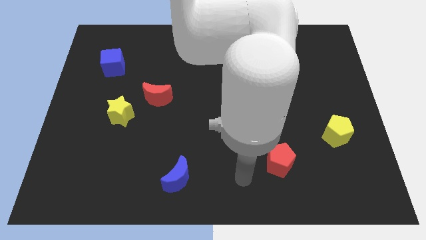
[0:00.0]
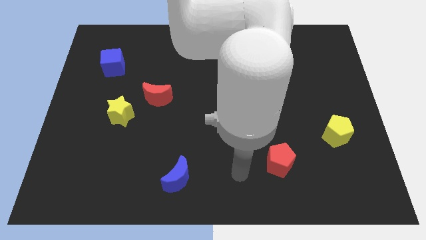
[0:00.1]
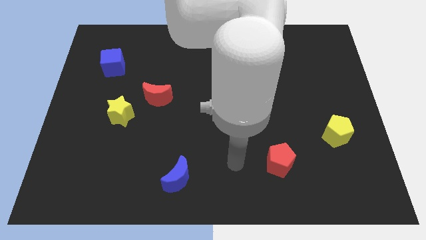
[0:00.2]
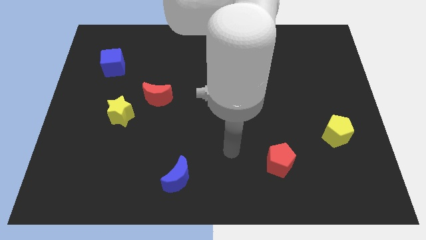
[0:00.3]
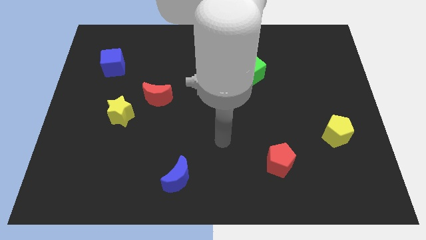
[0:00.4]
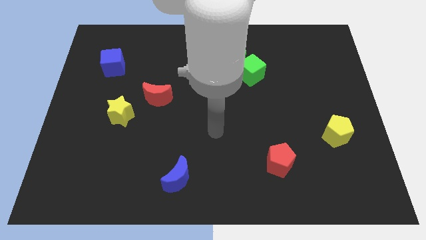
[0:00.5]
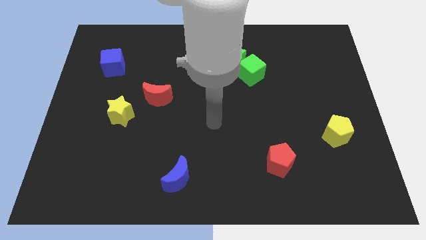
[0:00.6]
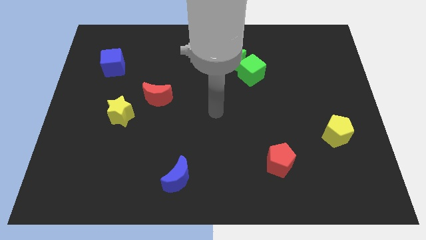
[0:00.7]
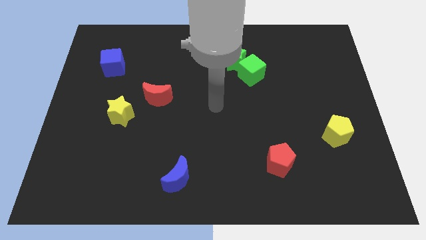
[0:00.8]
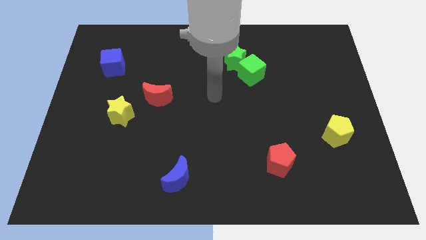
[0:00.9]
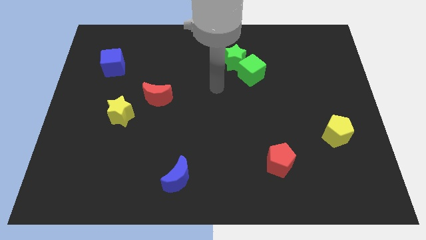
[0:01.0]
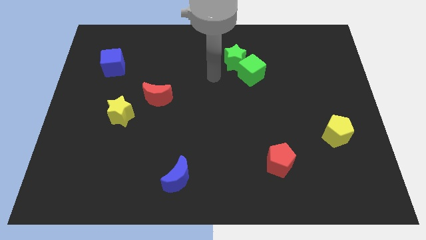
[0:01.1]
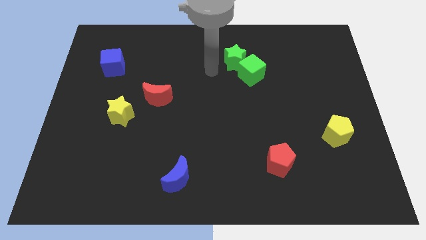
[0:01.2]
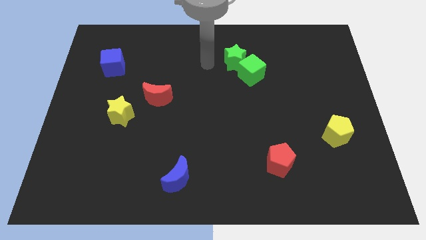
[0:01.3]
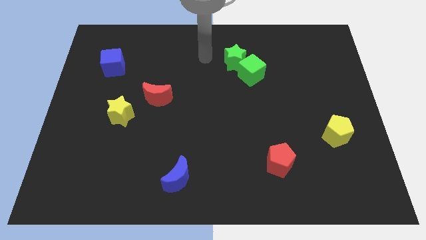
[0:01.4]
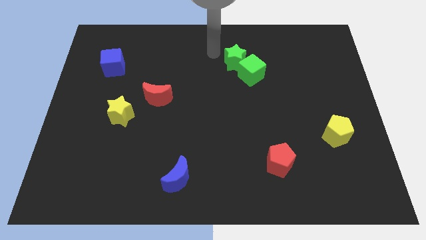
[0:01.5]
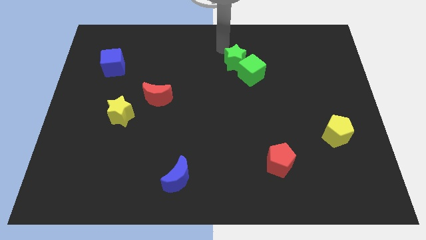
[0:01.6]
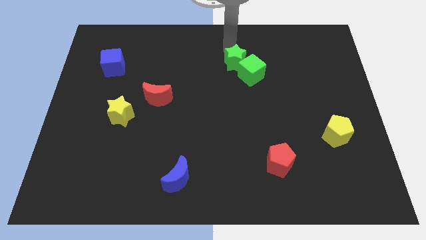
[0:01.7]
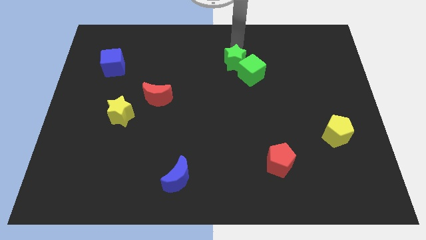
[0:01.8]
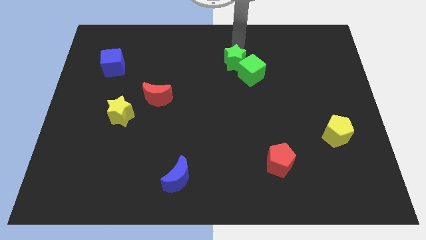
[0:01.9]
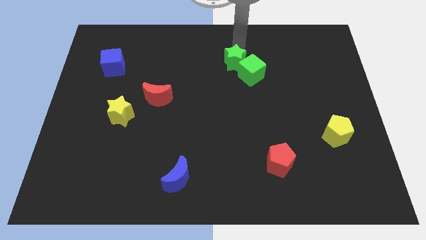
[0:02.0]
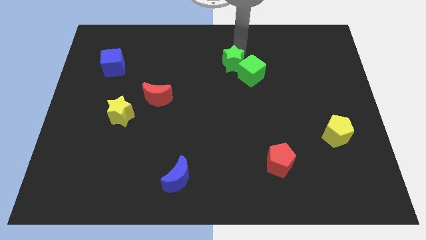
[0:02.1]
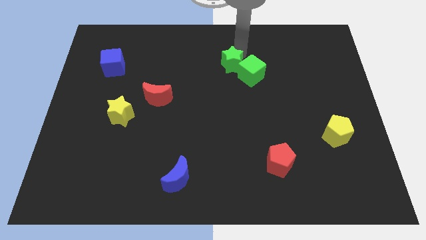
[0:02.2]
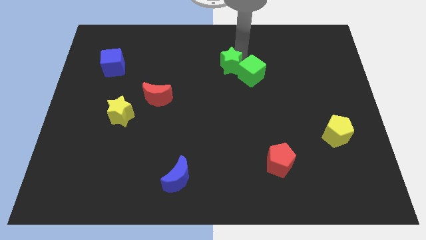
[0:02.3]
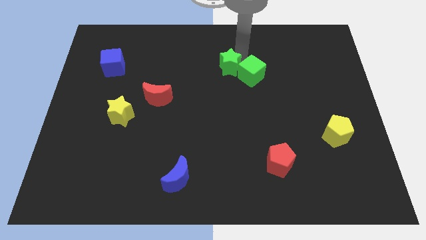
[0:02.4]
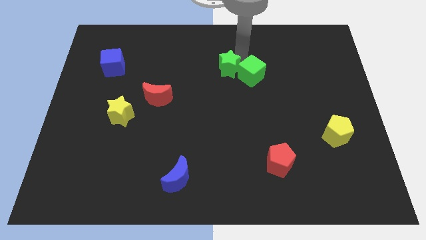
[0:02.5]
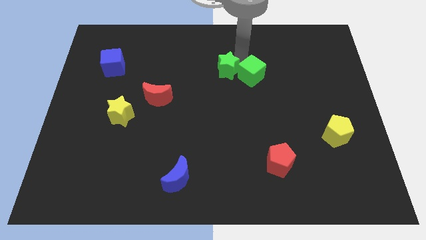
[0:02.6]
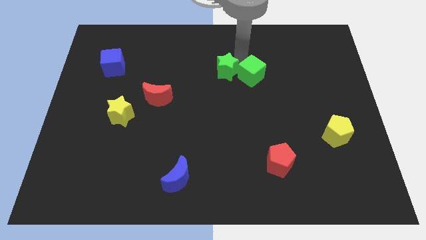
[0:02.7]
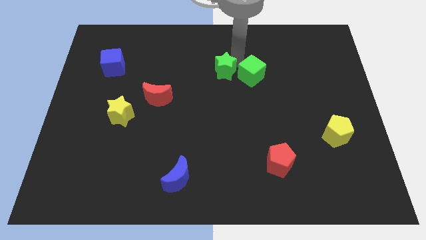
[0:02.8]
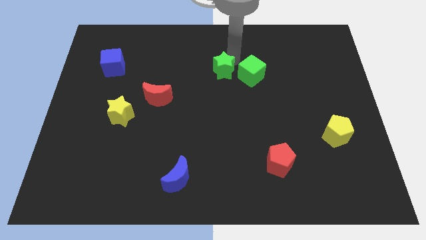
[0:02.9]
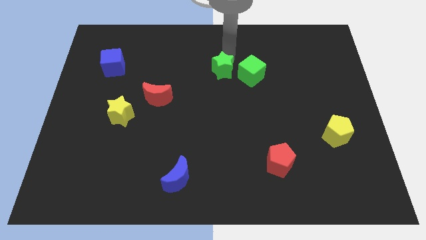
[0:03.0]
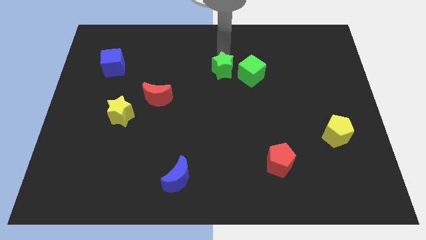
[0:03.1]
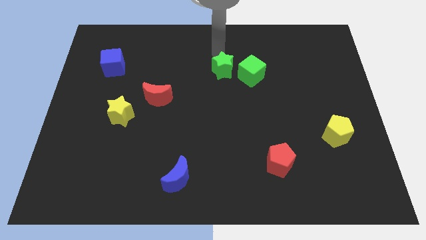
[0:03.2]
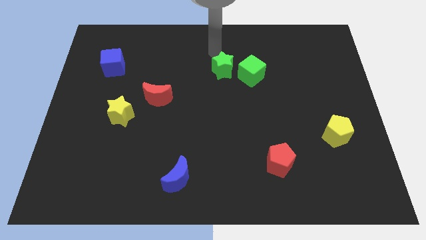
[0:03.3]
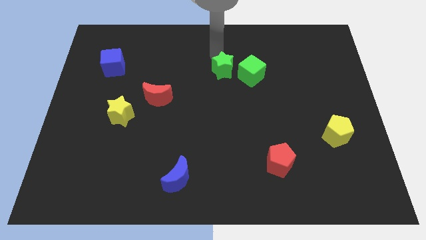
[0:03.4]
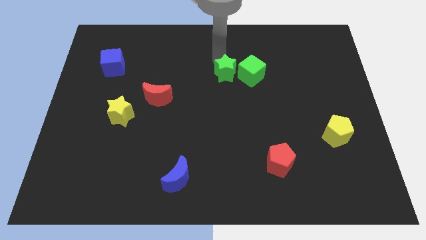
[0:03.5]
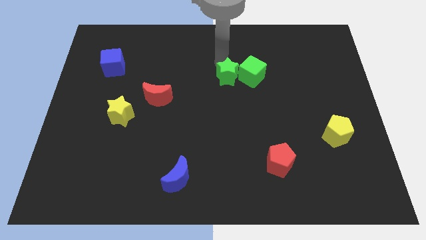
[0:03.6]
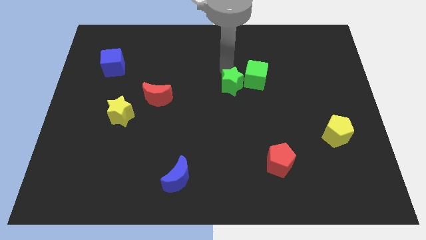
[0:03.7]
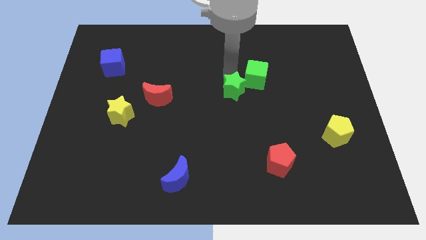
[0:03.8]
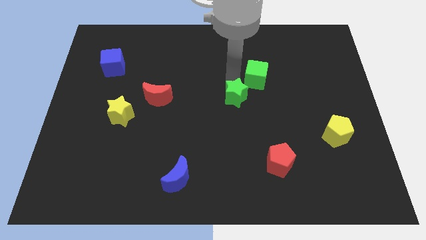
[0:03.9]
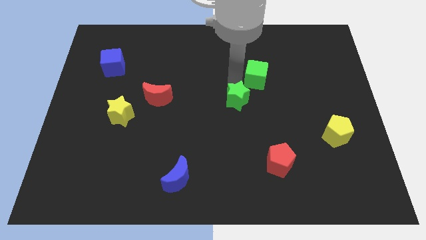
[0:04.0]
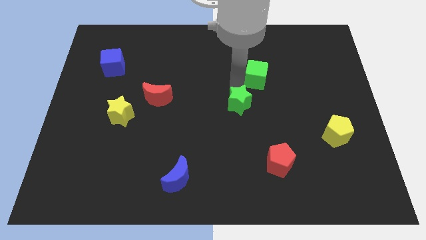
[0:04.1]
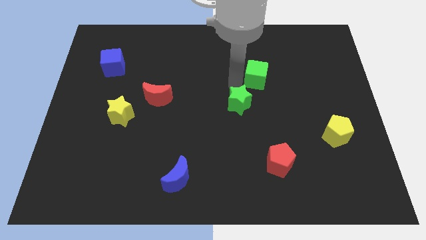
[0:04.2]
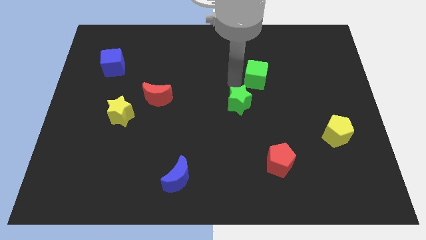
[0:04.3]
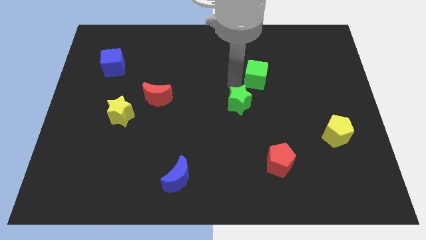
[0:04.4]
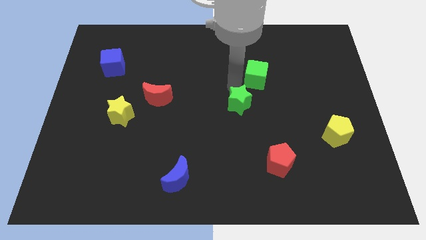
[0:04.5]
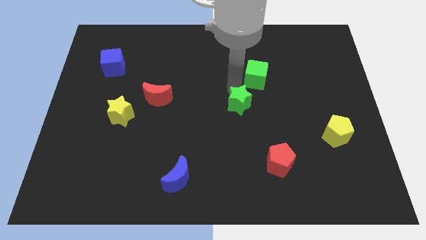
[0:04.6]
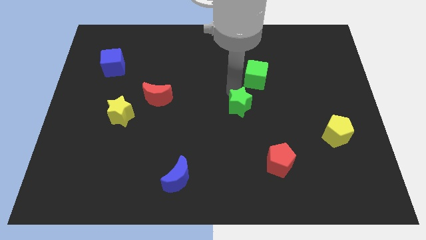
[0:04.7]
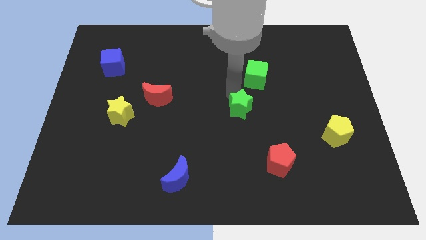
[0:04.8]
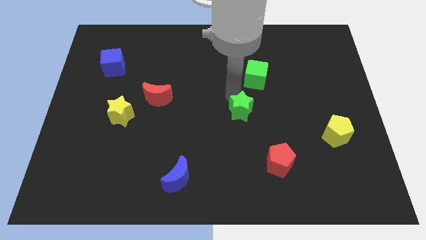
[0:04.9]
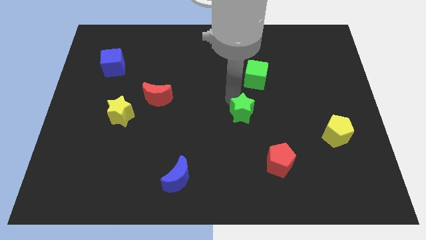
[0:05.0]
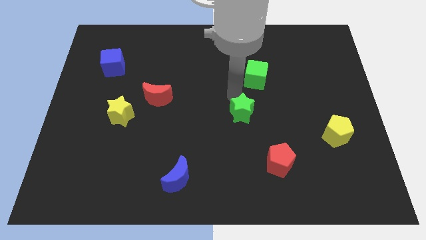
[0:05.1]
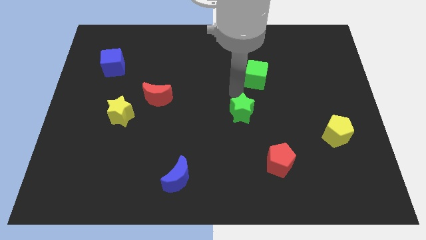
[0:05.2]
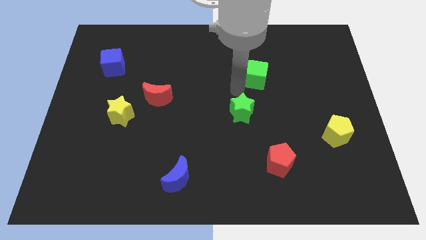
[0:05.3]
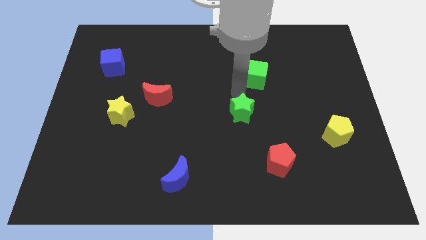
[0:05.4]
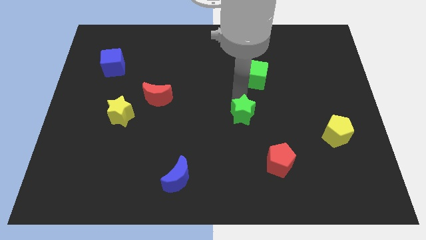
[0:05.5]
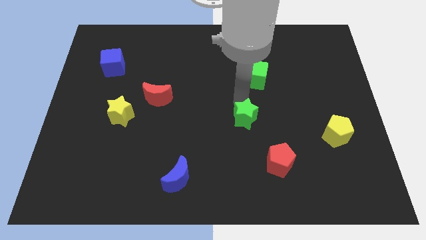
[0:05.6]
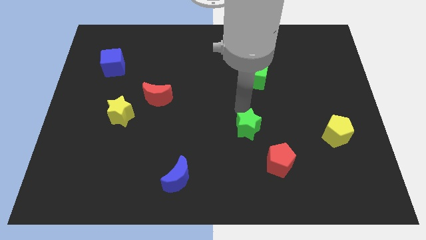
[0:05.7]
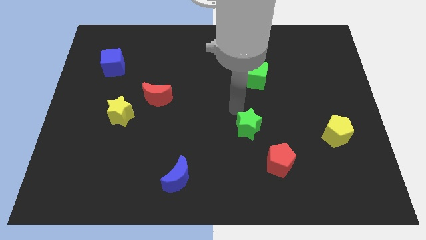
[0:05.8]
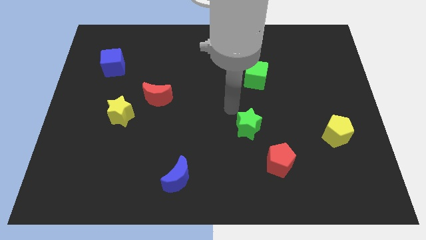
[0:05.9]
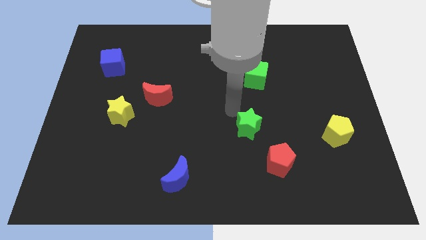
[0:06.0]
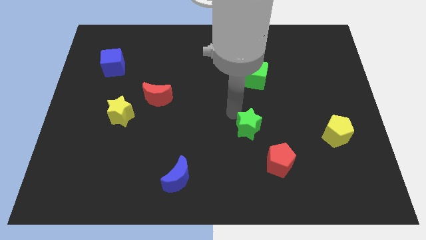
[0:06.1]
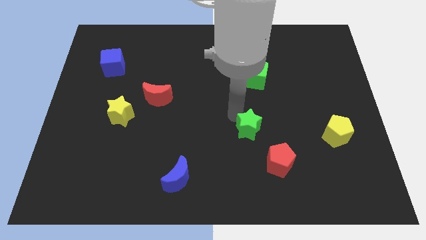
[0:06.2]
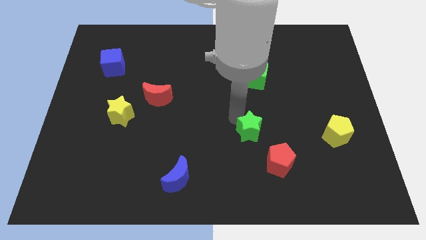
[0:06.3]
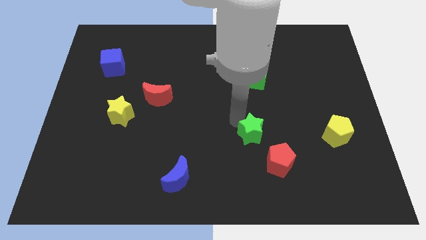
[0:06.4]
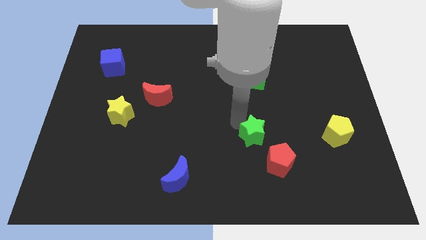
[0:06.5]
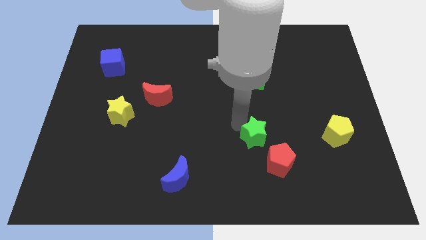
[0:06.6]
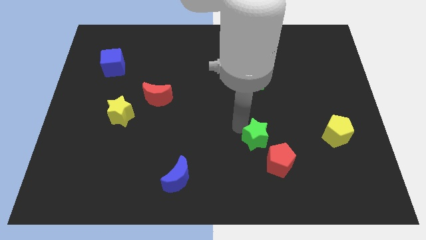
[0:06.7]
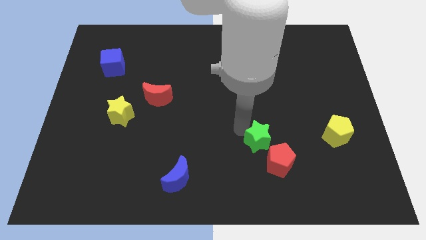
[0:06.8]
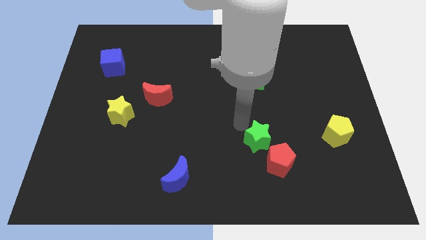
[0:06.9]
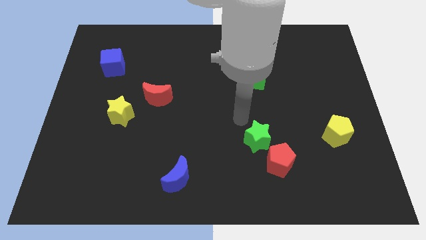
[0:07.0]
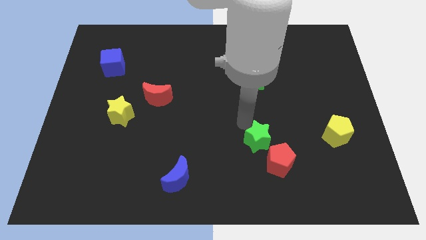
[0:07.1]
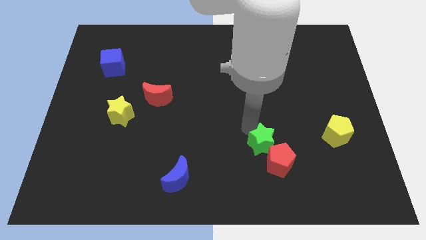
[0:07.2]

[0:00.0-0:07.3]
move the green star next to the red pentagon
